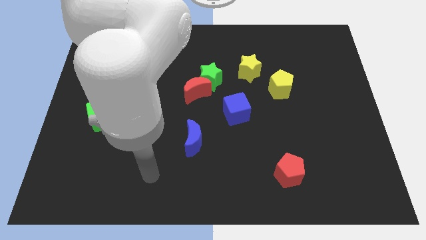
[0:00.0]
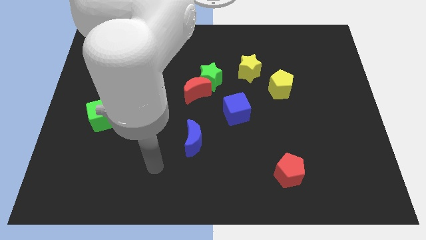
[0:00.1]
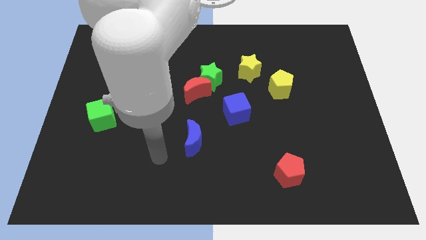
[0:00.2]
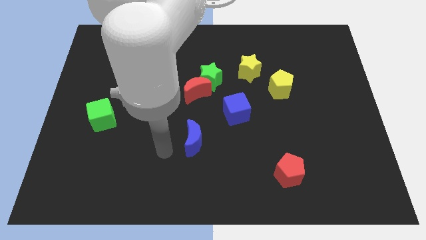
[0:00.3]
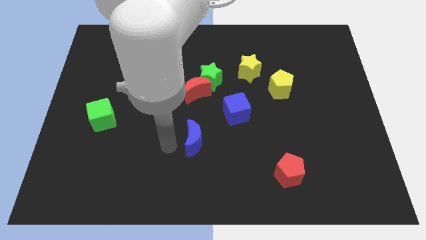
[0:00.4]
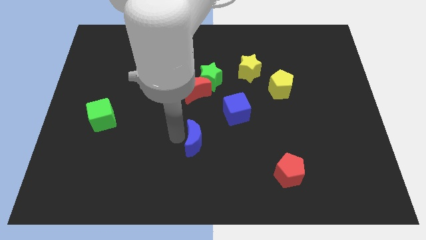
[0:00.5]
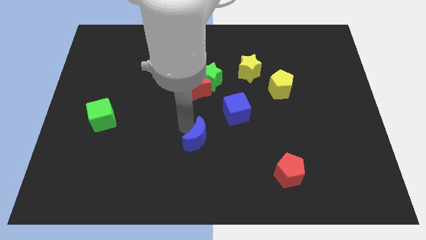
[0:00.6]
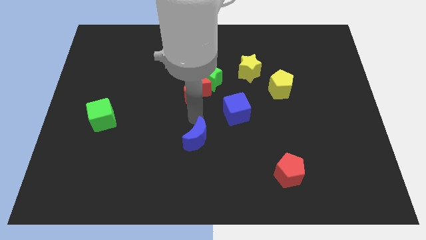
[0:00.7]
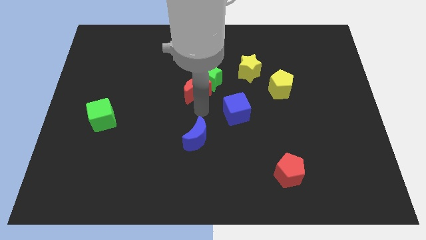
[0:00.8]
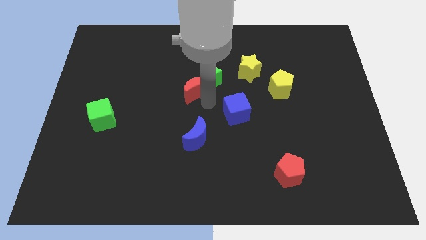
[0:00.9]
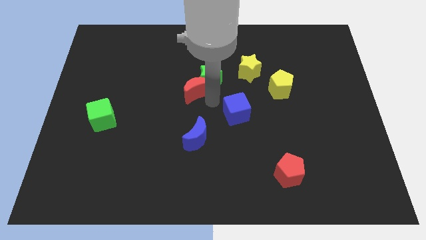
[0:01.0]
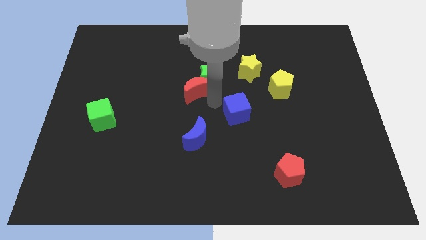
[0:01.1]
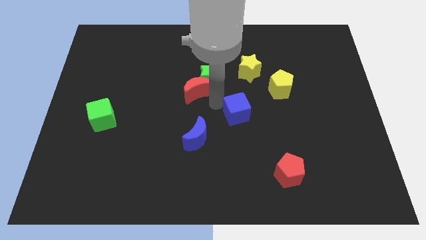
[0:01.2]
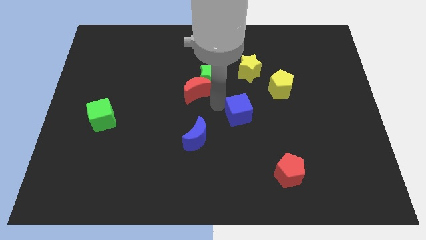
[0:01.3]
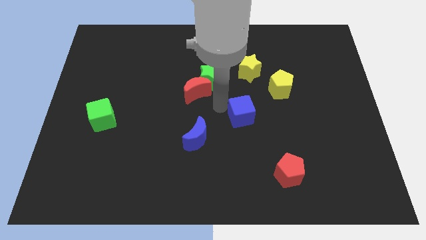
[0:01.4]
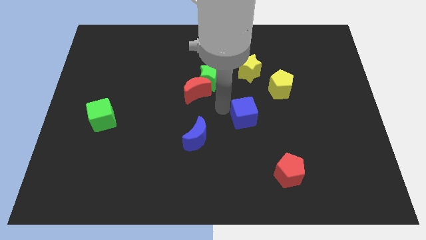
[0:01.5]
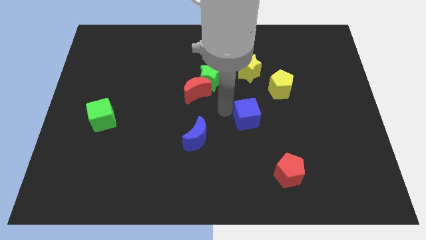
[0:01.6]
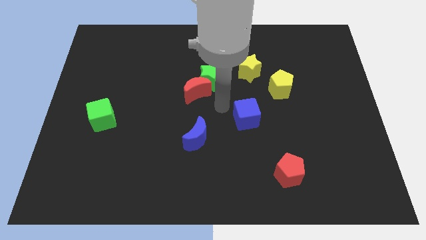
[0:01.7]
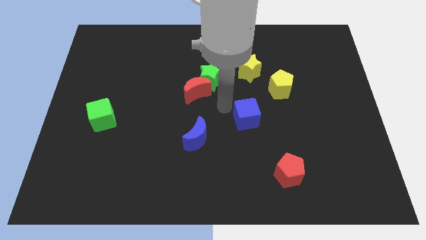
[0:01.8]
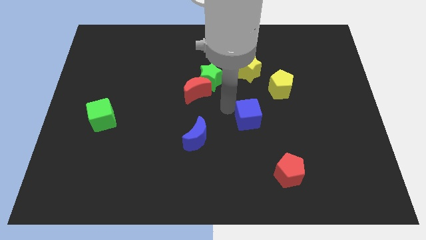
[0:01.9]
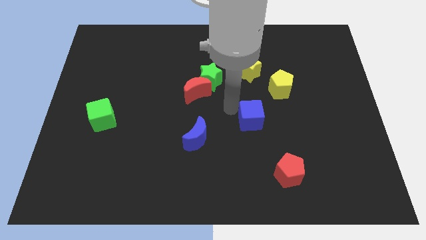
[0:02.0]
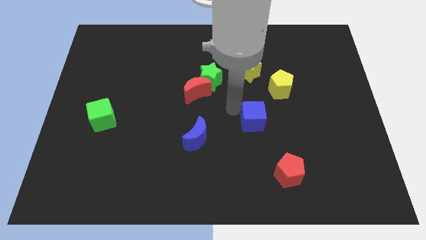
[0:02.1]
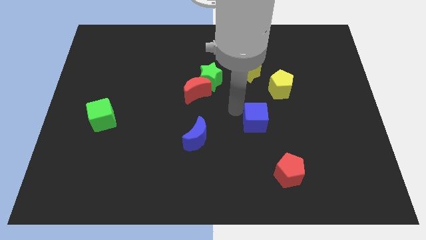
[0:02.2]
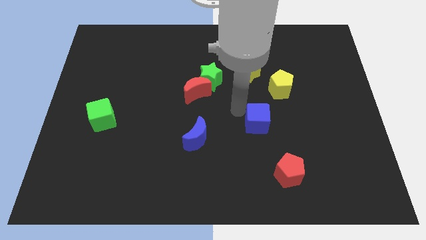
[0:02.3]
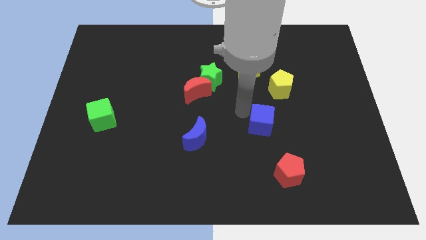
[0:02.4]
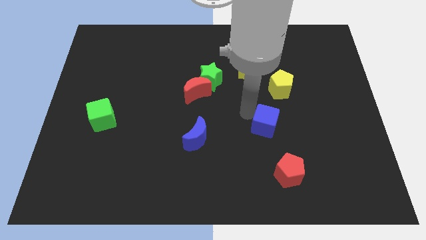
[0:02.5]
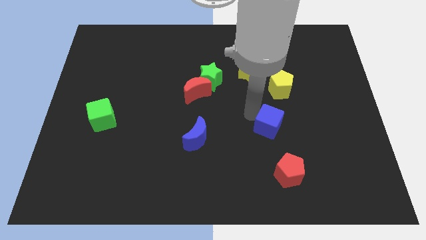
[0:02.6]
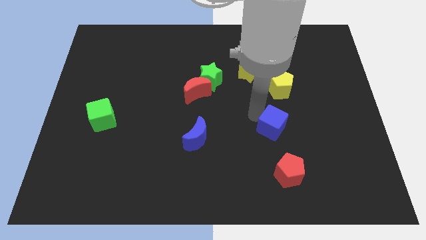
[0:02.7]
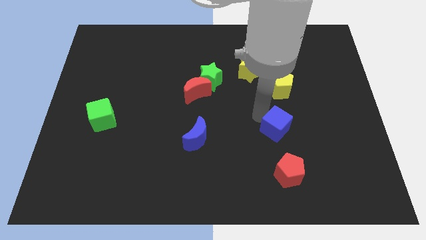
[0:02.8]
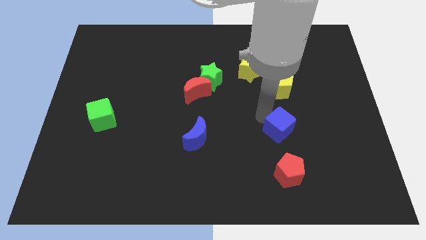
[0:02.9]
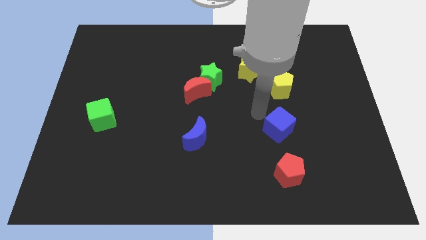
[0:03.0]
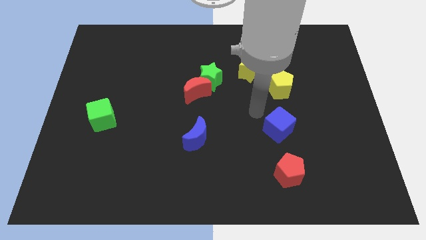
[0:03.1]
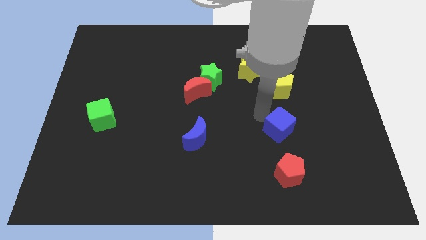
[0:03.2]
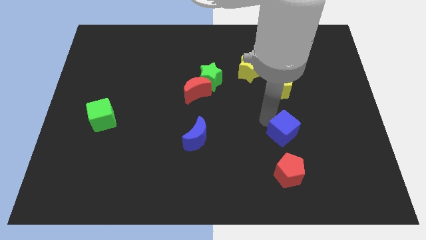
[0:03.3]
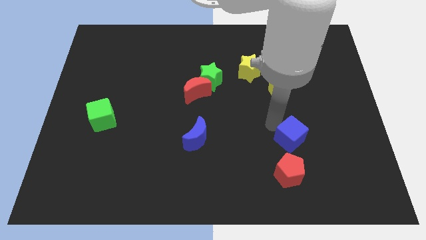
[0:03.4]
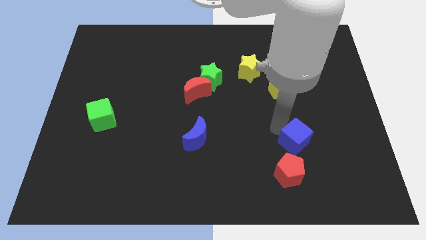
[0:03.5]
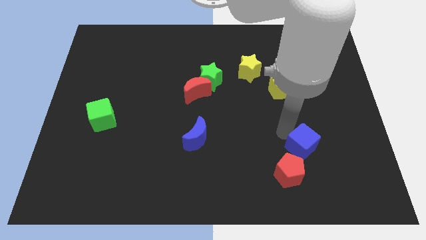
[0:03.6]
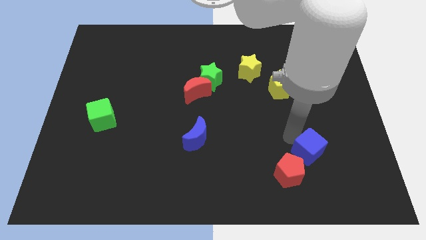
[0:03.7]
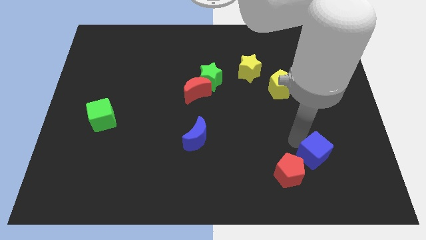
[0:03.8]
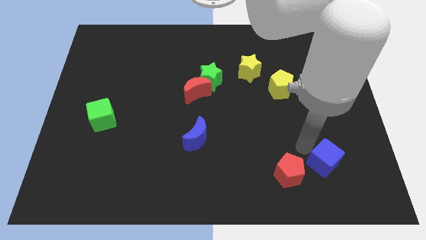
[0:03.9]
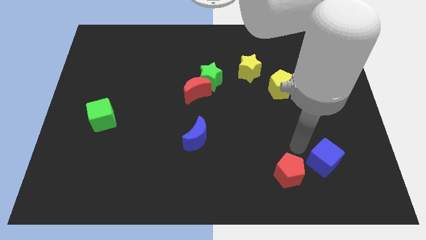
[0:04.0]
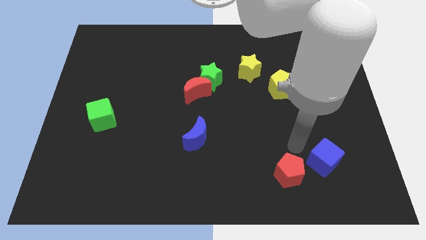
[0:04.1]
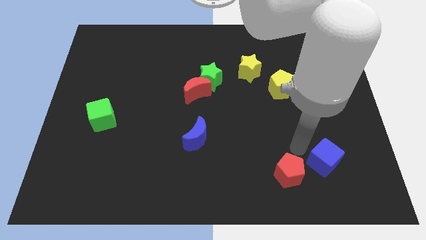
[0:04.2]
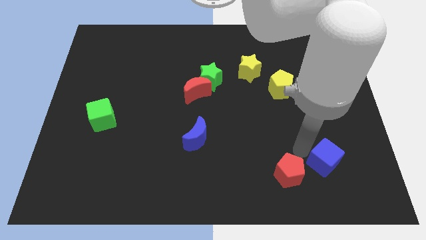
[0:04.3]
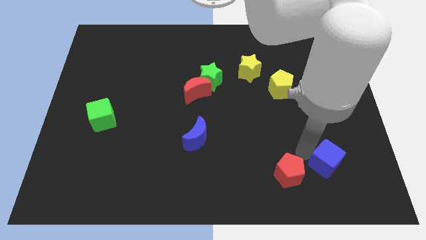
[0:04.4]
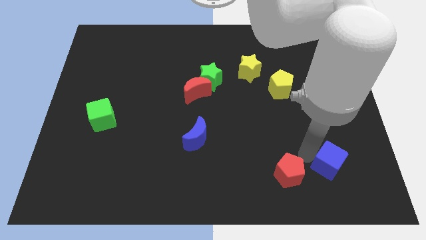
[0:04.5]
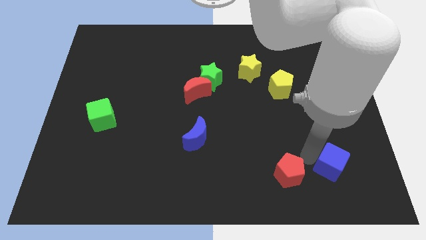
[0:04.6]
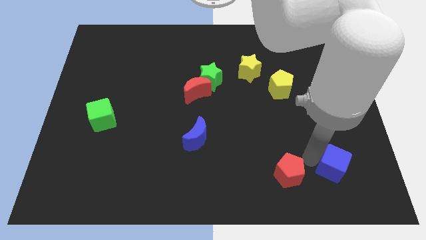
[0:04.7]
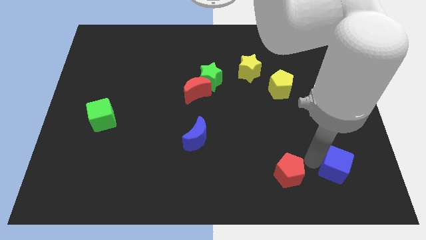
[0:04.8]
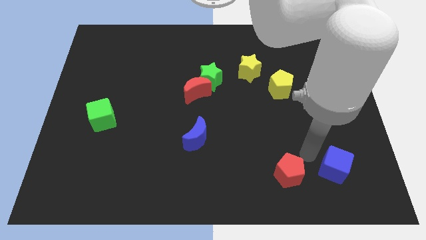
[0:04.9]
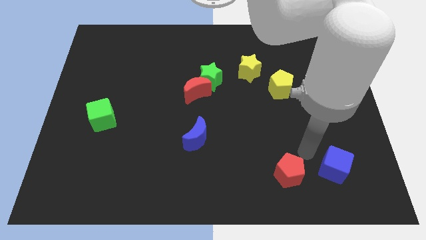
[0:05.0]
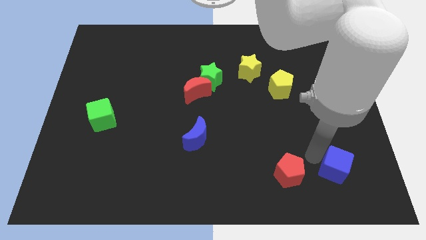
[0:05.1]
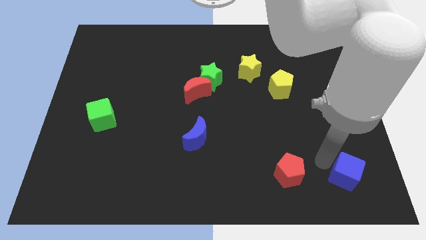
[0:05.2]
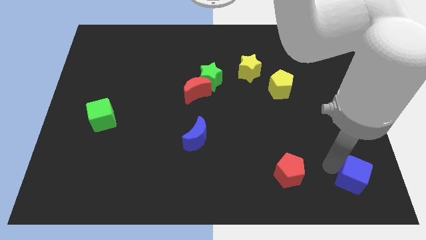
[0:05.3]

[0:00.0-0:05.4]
move the blue cube to the lower right corner

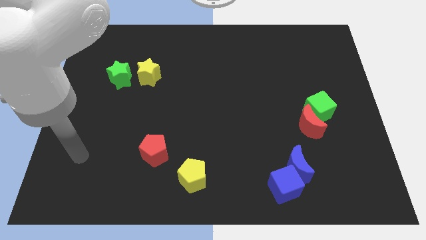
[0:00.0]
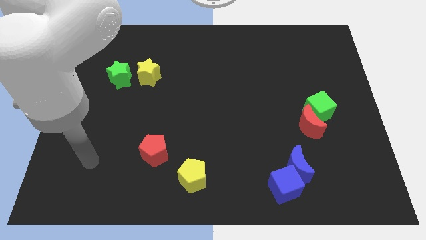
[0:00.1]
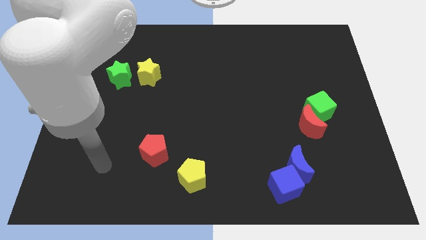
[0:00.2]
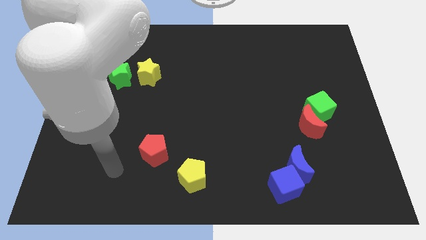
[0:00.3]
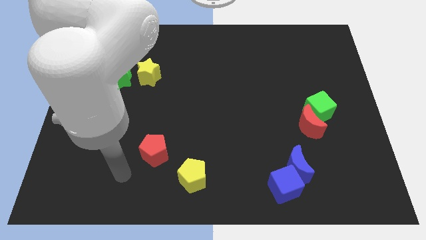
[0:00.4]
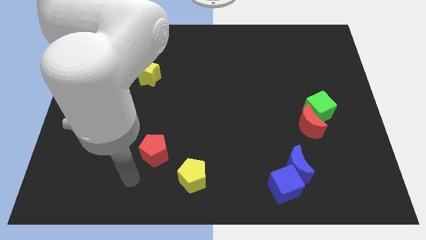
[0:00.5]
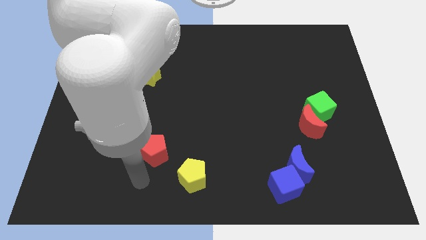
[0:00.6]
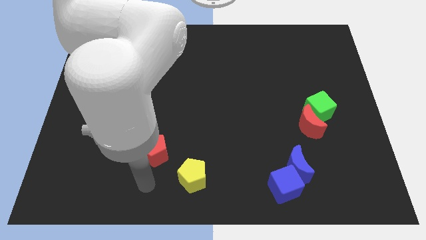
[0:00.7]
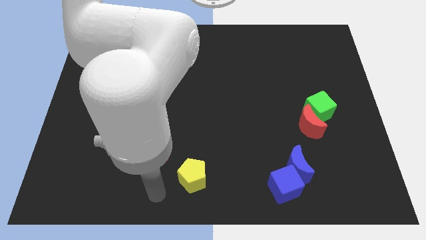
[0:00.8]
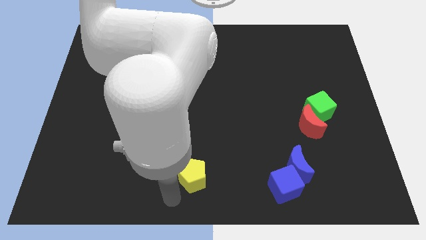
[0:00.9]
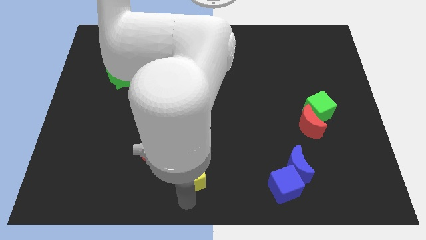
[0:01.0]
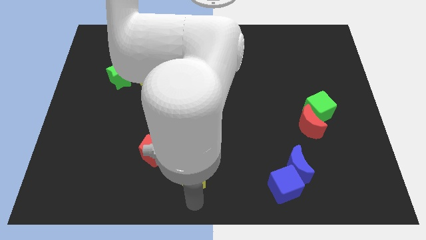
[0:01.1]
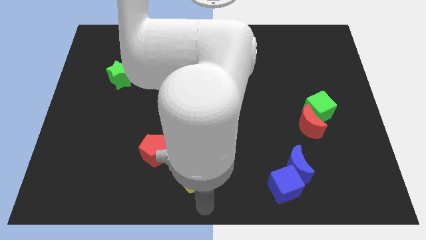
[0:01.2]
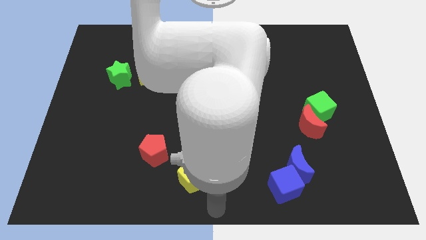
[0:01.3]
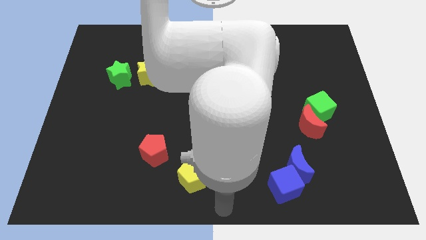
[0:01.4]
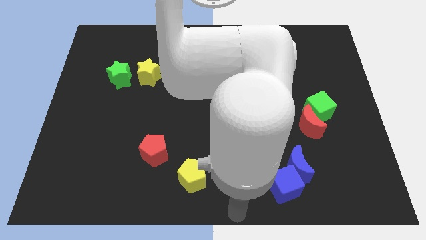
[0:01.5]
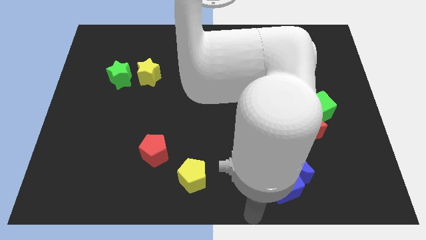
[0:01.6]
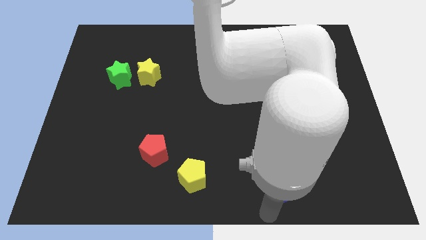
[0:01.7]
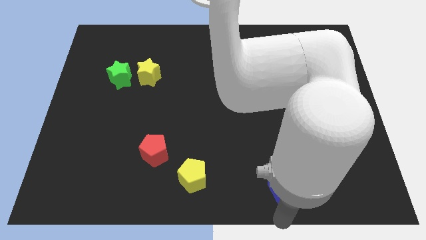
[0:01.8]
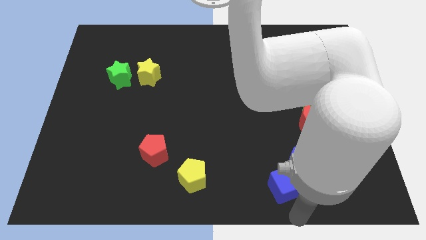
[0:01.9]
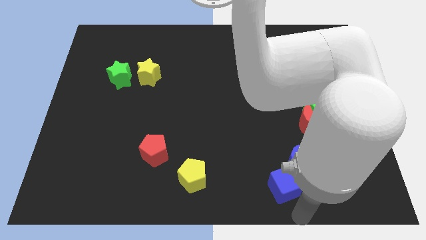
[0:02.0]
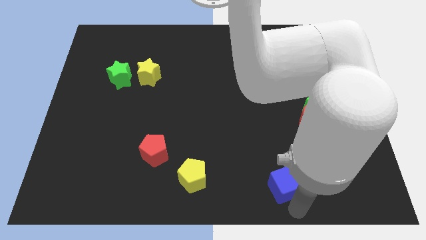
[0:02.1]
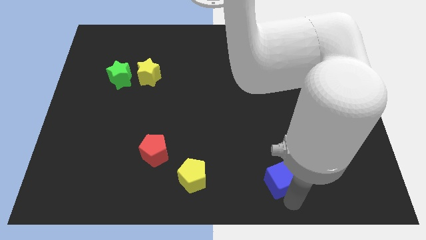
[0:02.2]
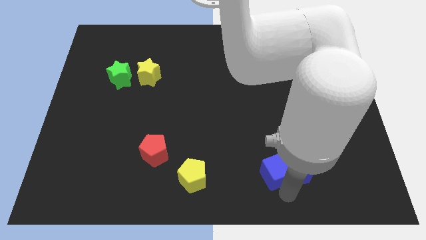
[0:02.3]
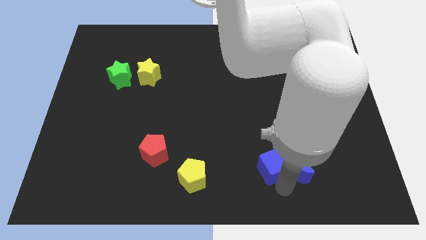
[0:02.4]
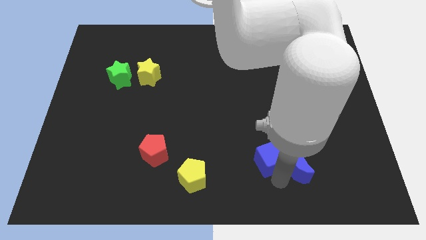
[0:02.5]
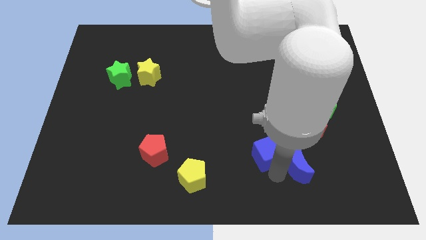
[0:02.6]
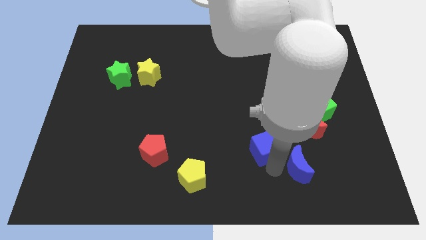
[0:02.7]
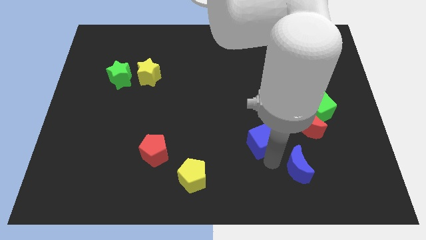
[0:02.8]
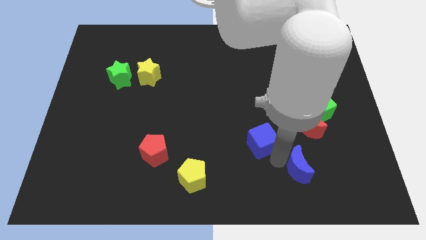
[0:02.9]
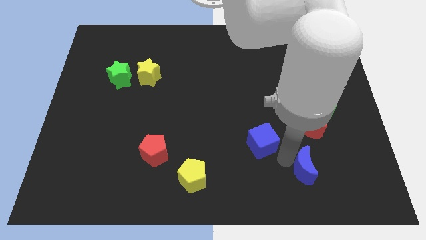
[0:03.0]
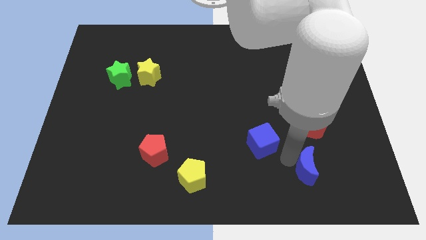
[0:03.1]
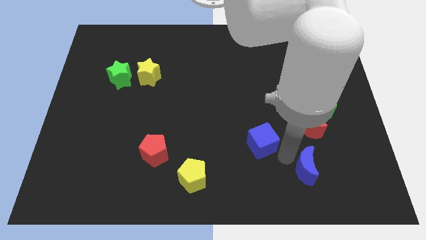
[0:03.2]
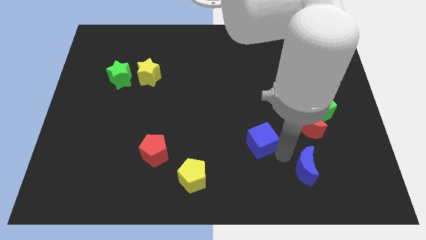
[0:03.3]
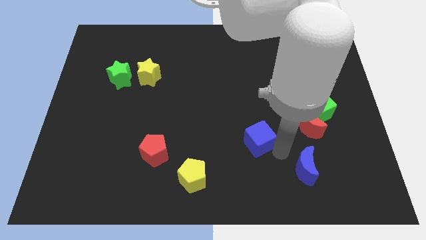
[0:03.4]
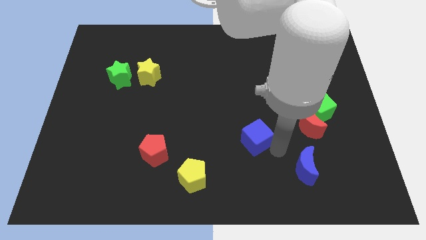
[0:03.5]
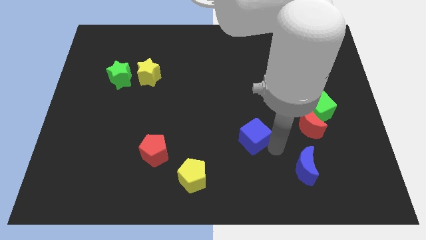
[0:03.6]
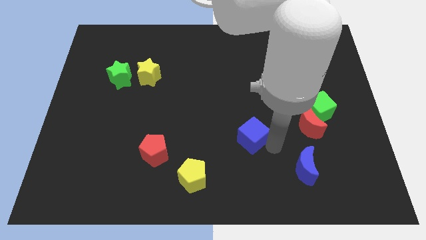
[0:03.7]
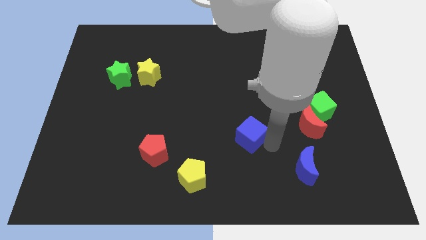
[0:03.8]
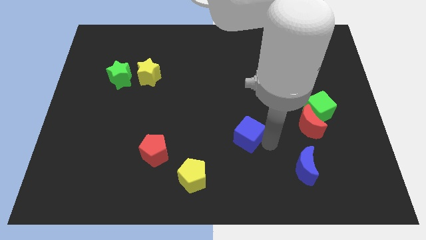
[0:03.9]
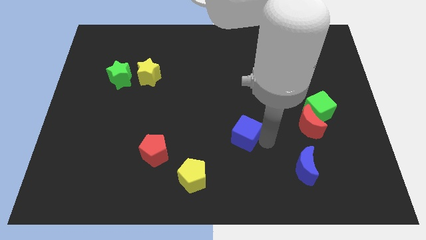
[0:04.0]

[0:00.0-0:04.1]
move the blue cube to the center
